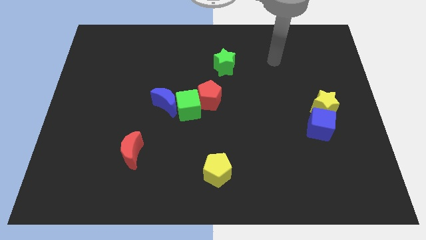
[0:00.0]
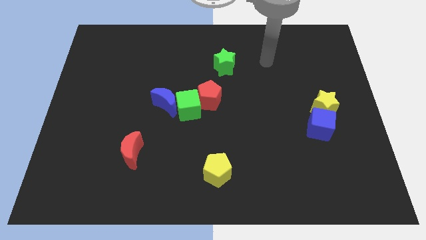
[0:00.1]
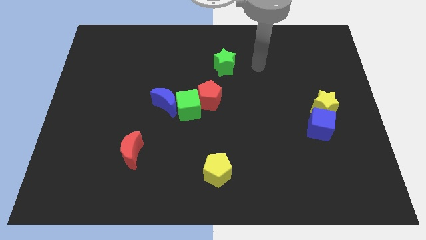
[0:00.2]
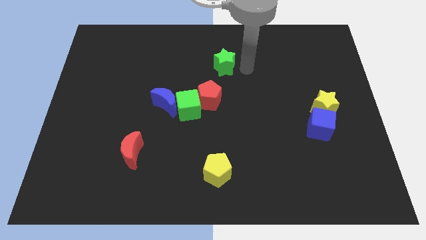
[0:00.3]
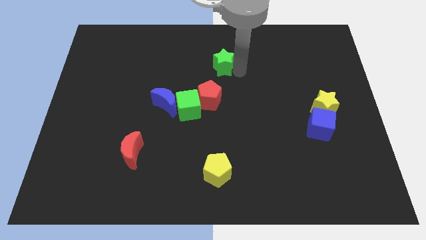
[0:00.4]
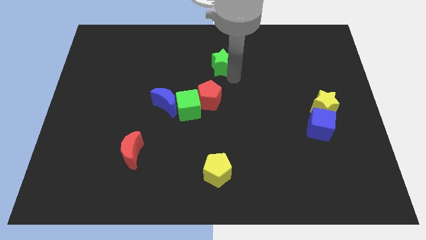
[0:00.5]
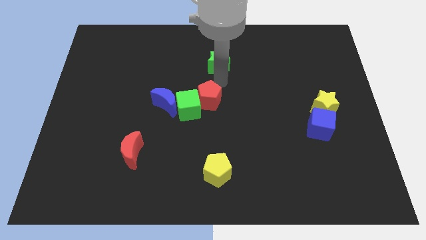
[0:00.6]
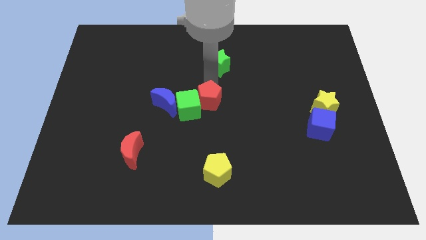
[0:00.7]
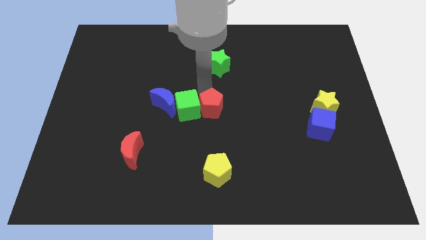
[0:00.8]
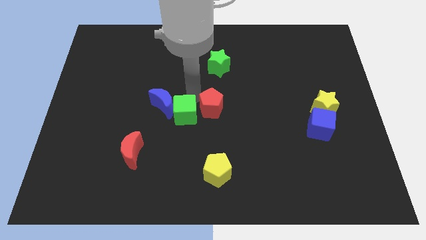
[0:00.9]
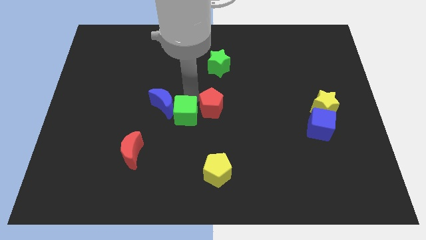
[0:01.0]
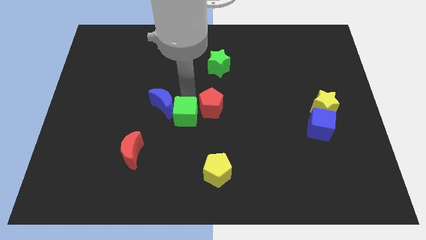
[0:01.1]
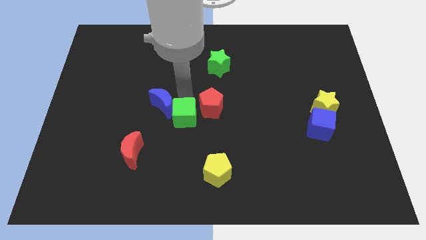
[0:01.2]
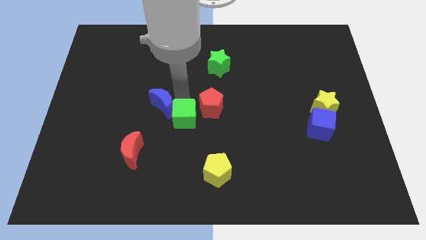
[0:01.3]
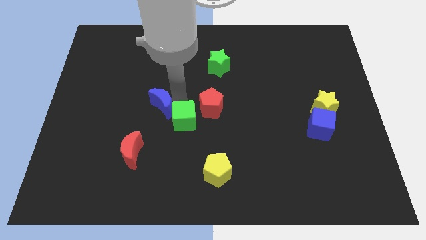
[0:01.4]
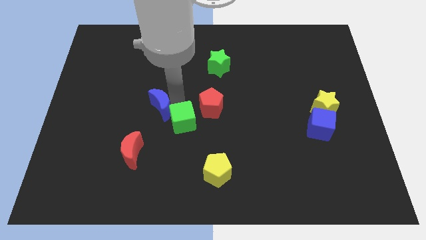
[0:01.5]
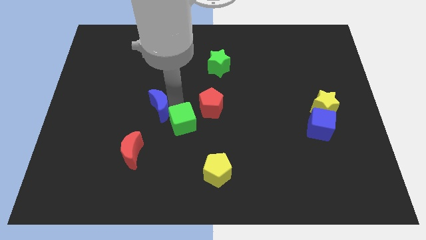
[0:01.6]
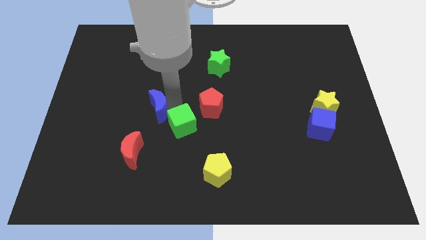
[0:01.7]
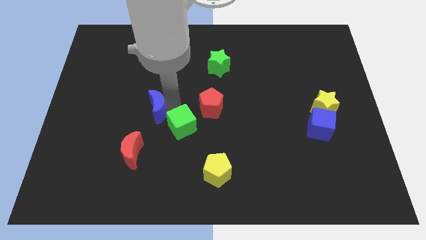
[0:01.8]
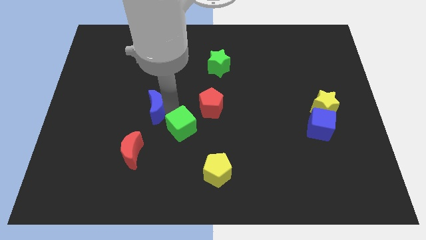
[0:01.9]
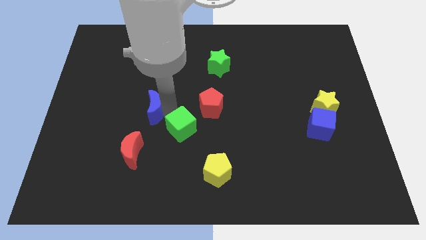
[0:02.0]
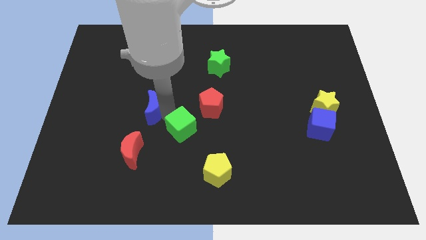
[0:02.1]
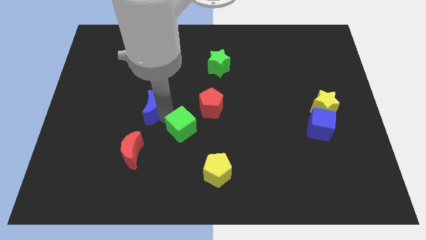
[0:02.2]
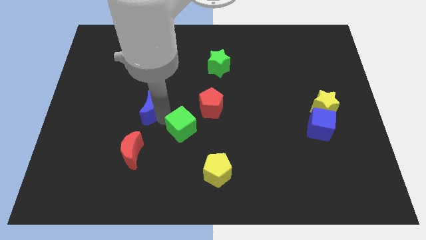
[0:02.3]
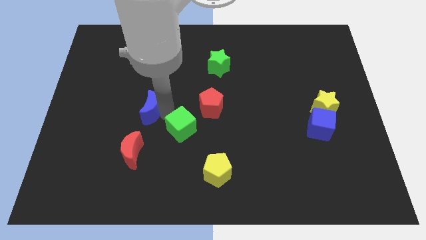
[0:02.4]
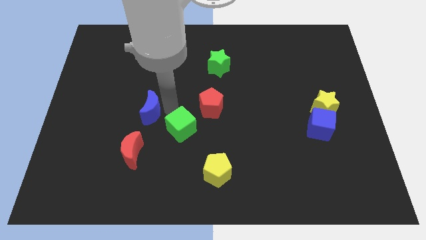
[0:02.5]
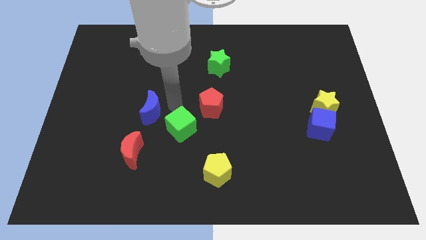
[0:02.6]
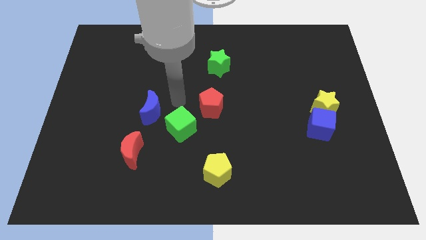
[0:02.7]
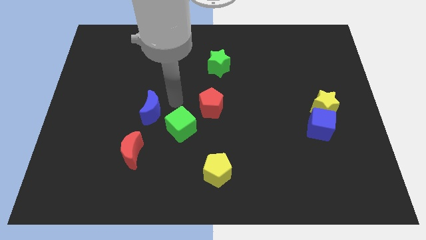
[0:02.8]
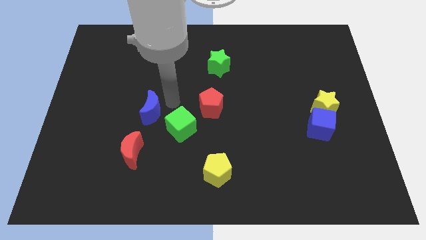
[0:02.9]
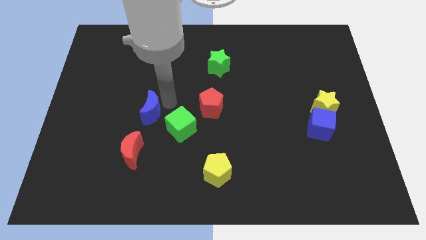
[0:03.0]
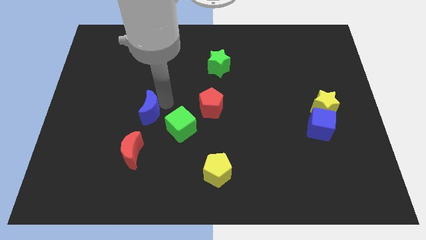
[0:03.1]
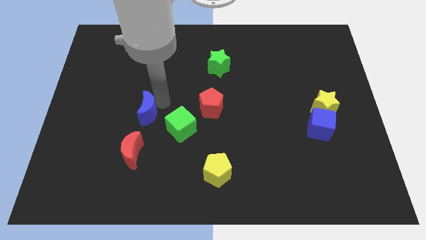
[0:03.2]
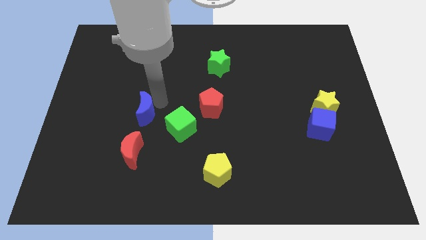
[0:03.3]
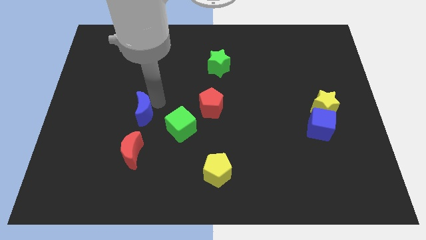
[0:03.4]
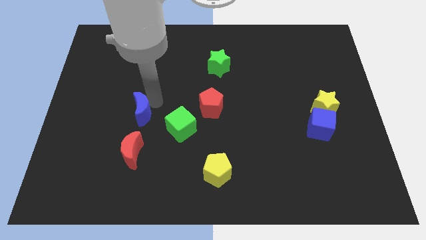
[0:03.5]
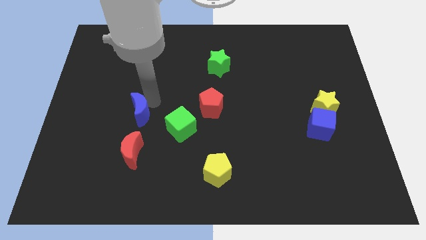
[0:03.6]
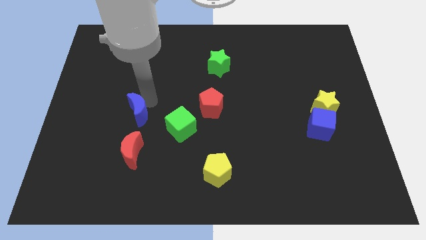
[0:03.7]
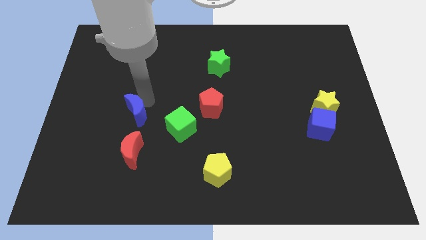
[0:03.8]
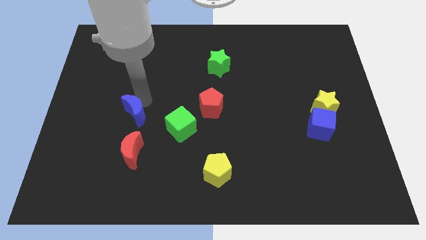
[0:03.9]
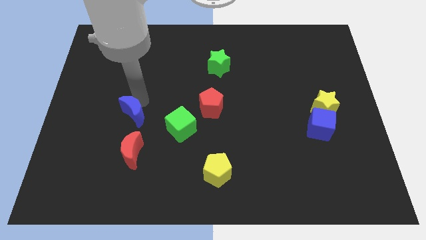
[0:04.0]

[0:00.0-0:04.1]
slide the blue moon a little down and left

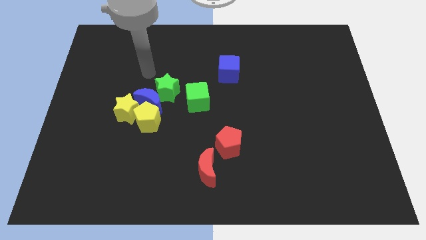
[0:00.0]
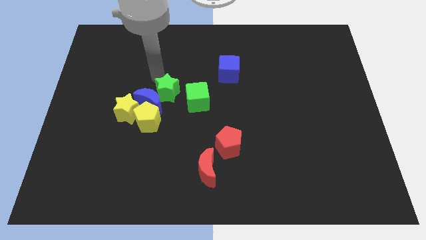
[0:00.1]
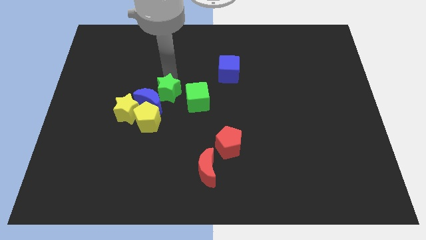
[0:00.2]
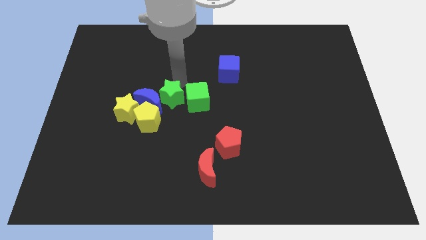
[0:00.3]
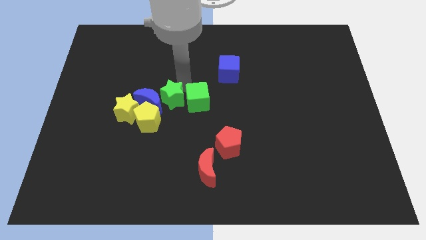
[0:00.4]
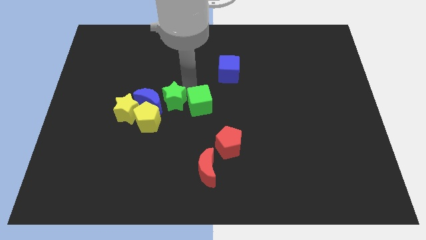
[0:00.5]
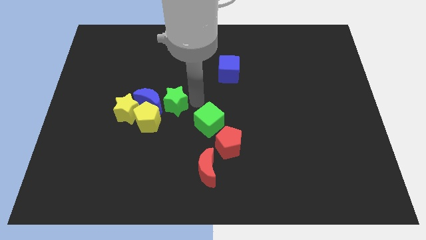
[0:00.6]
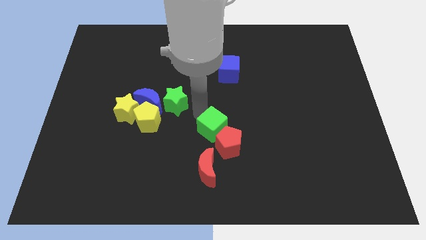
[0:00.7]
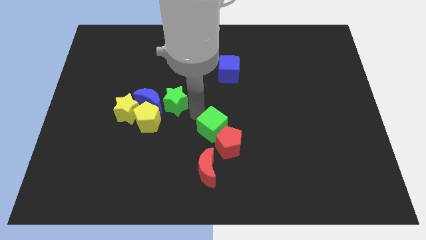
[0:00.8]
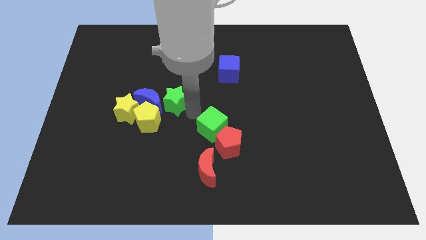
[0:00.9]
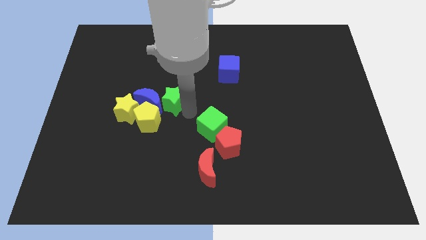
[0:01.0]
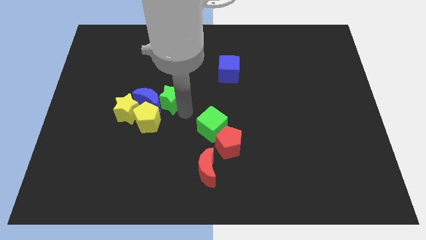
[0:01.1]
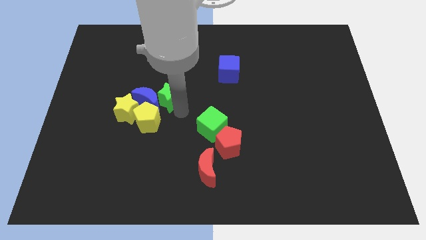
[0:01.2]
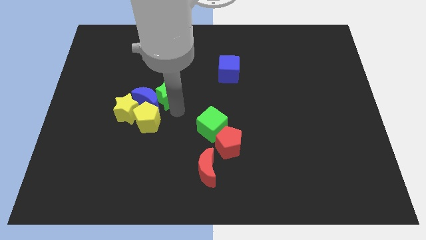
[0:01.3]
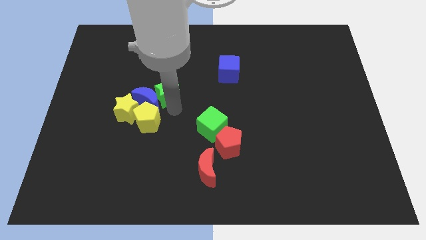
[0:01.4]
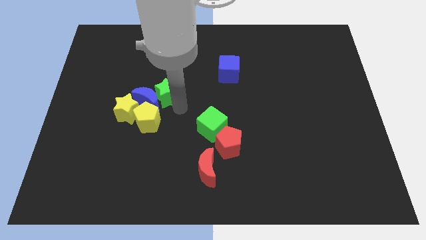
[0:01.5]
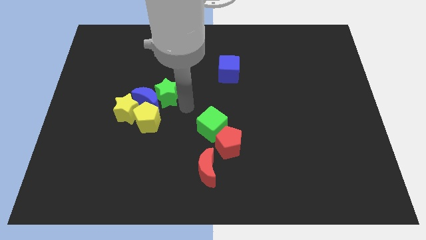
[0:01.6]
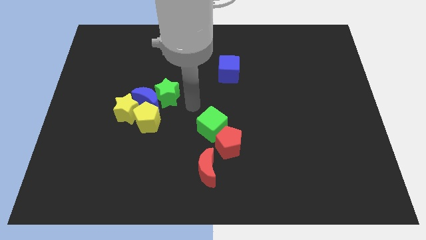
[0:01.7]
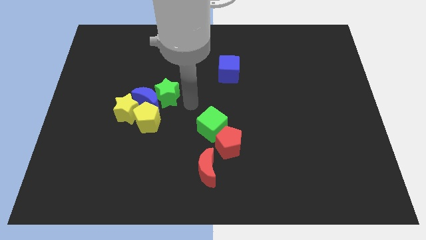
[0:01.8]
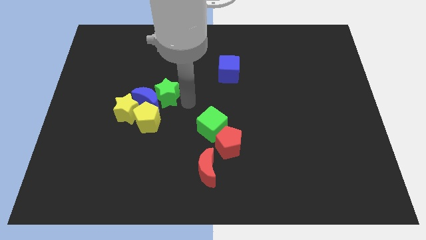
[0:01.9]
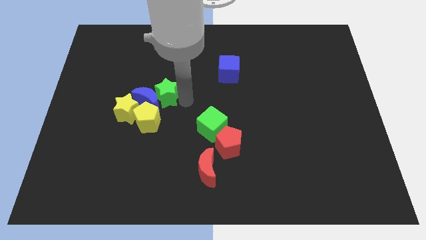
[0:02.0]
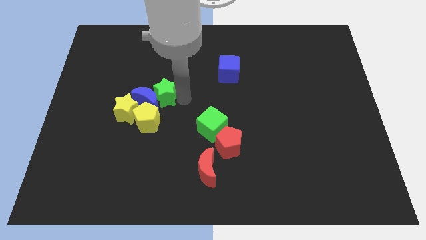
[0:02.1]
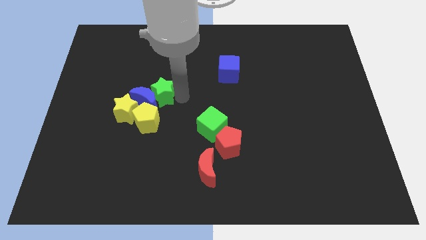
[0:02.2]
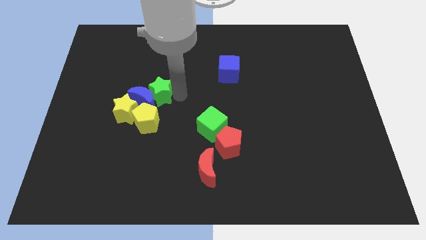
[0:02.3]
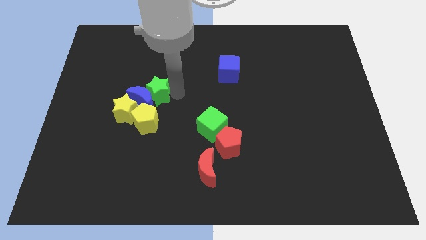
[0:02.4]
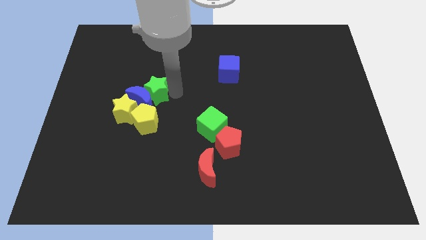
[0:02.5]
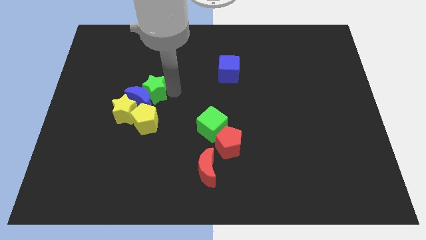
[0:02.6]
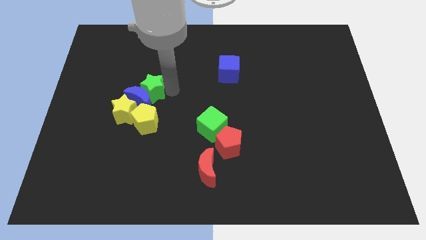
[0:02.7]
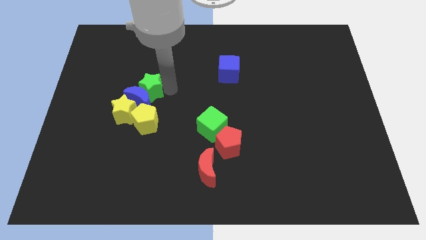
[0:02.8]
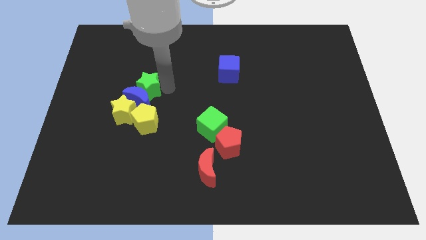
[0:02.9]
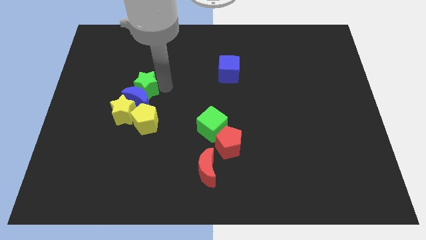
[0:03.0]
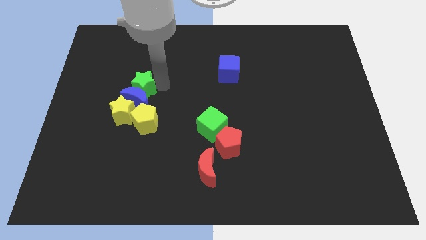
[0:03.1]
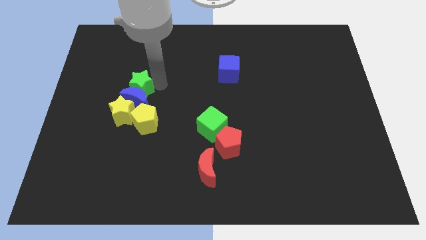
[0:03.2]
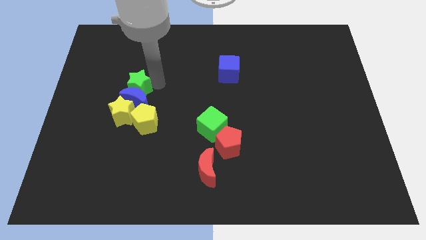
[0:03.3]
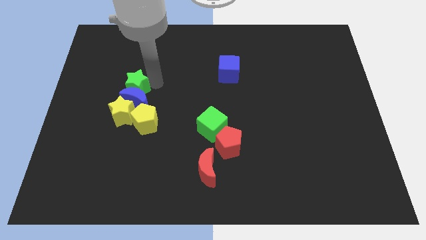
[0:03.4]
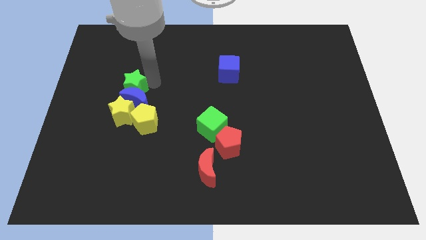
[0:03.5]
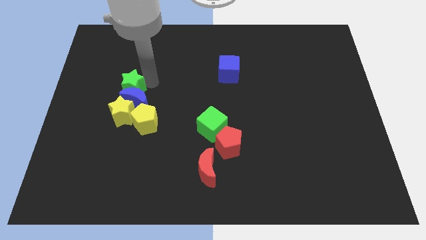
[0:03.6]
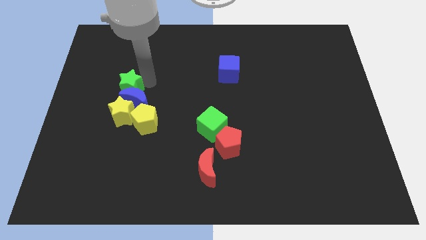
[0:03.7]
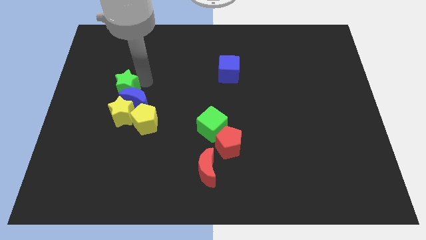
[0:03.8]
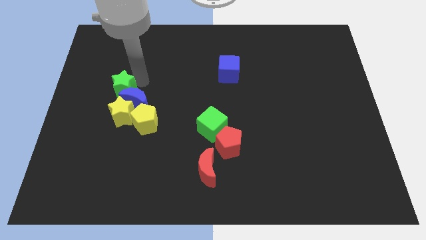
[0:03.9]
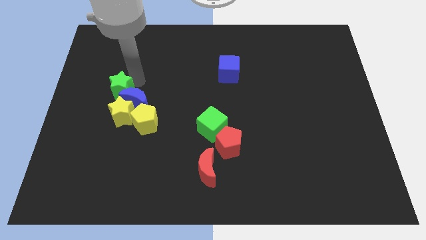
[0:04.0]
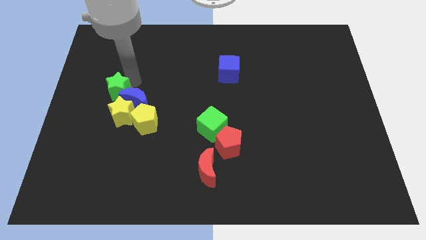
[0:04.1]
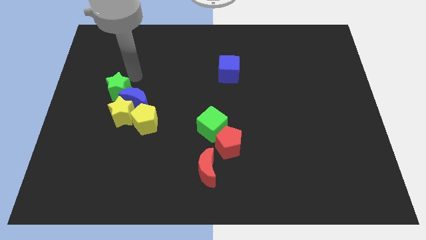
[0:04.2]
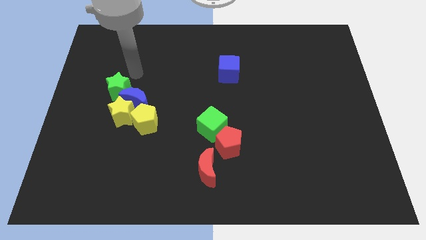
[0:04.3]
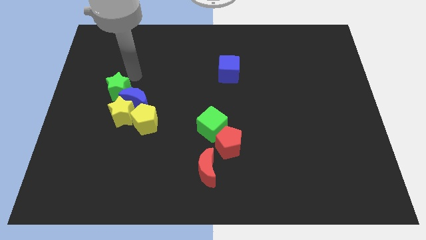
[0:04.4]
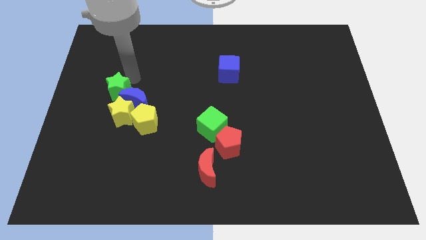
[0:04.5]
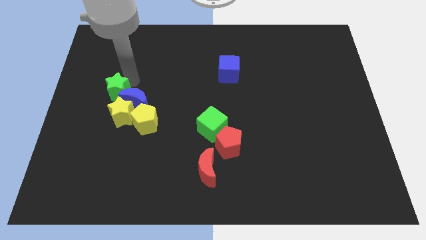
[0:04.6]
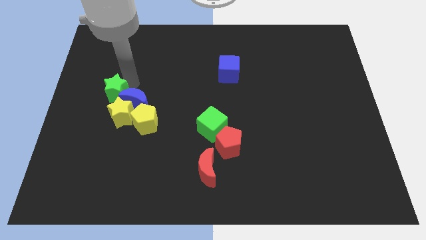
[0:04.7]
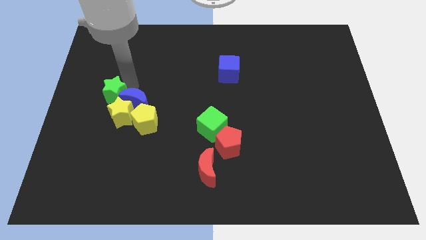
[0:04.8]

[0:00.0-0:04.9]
move the green star downwards and to the left diagonally slightly
